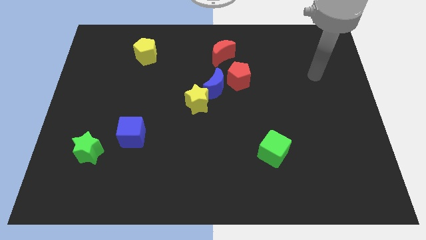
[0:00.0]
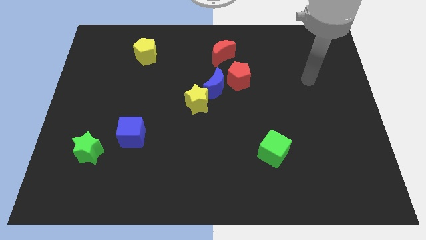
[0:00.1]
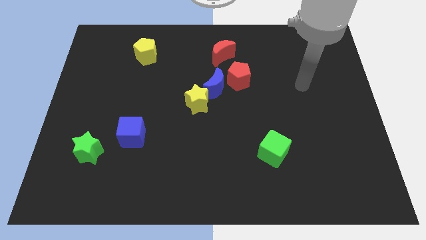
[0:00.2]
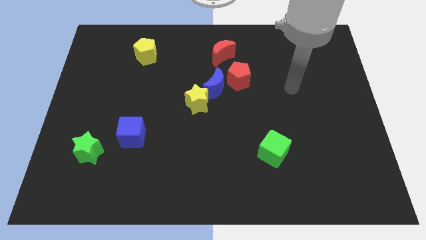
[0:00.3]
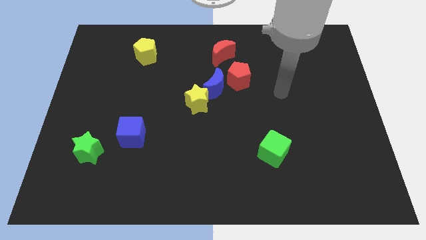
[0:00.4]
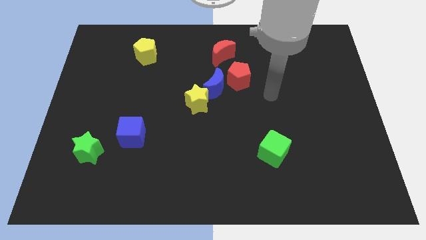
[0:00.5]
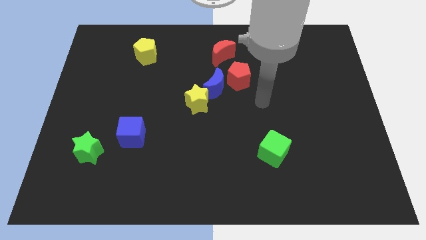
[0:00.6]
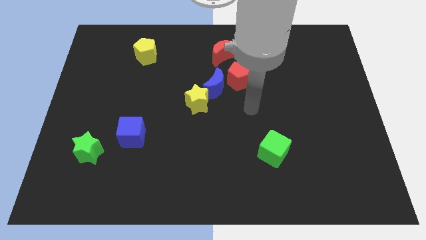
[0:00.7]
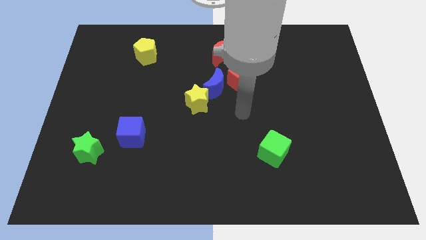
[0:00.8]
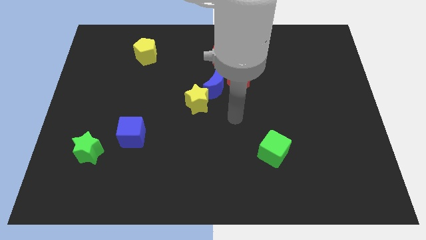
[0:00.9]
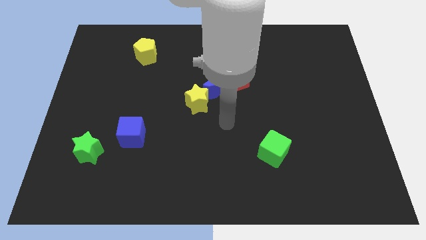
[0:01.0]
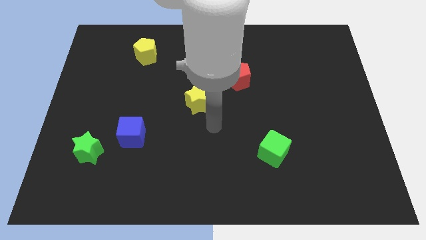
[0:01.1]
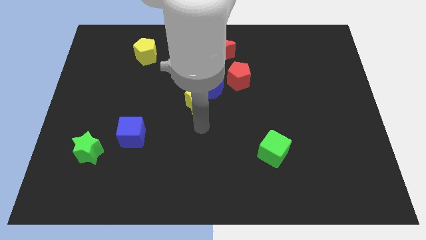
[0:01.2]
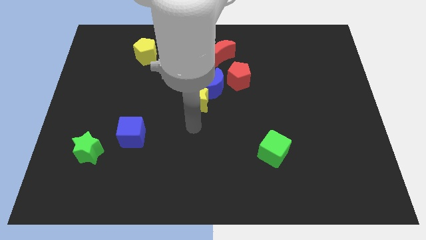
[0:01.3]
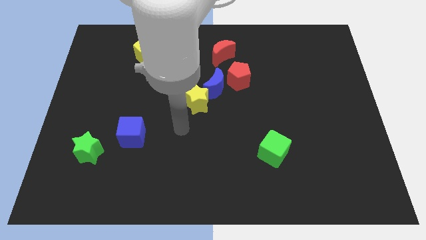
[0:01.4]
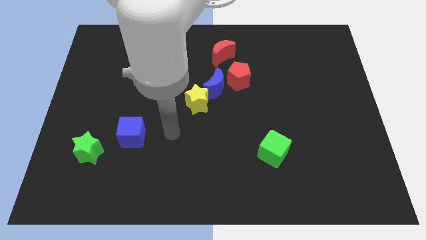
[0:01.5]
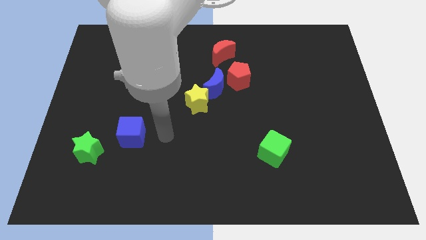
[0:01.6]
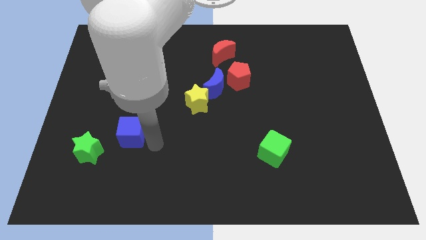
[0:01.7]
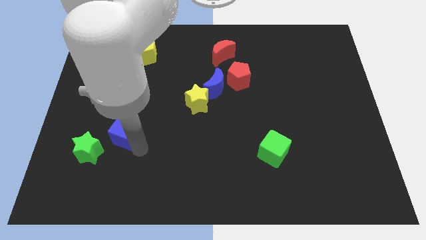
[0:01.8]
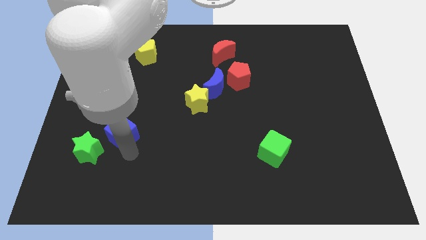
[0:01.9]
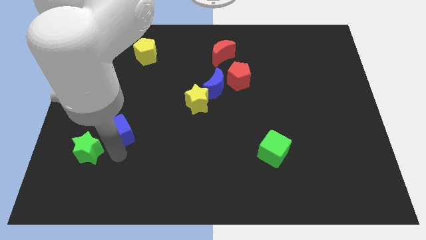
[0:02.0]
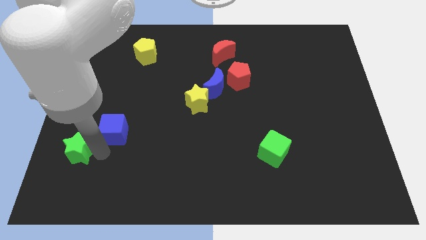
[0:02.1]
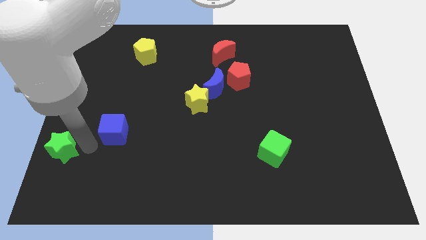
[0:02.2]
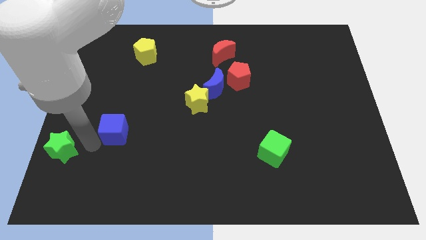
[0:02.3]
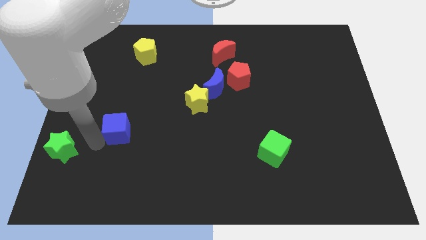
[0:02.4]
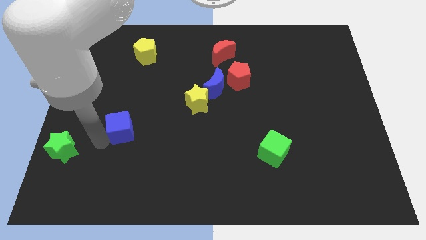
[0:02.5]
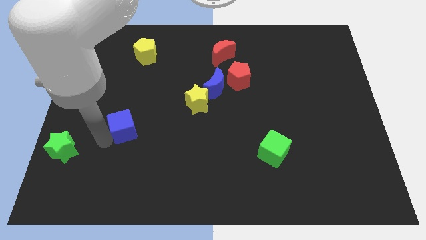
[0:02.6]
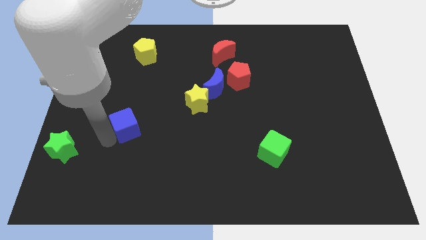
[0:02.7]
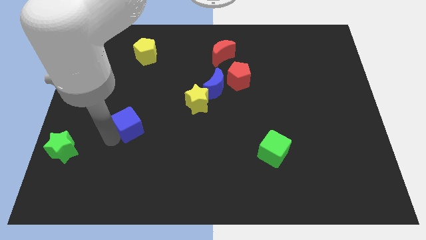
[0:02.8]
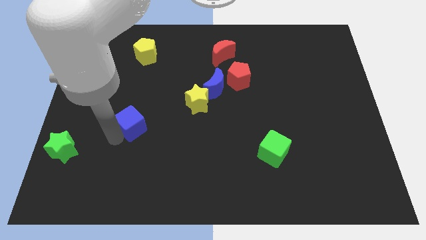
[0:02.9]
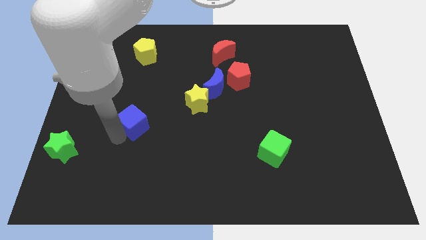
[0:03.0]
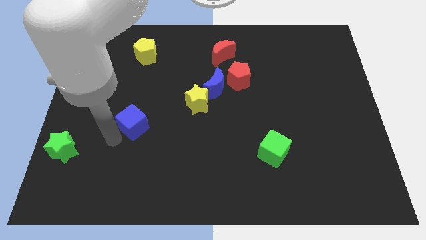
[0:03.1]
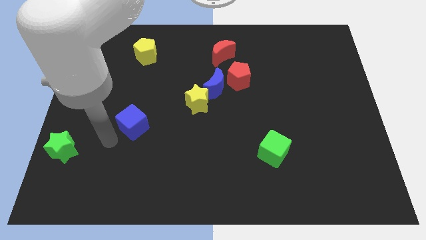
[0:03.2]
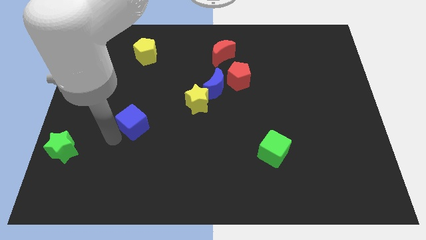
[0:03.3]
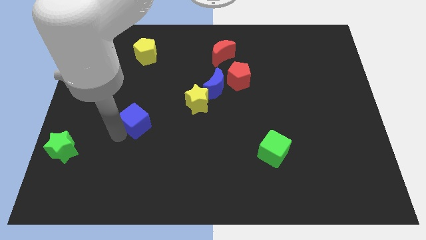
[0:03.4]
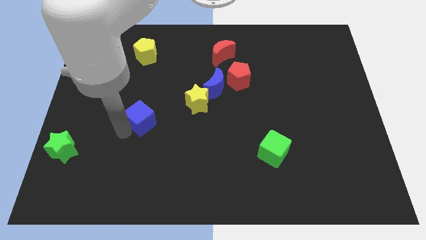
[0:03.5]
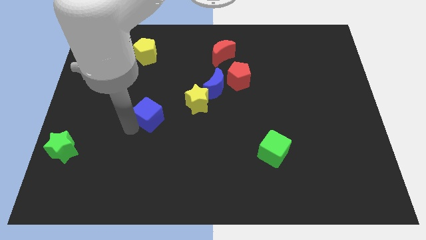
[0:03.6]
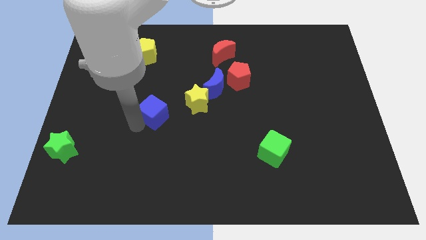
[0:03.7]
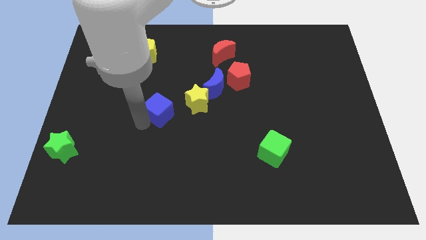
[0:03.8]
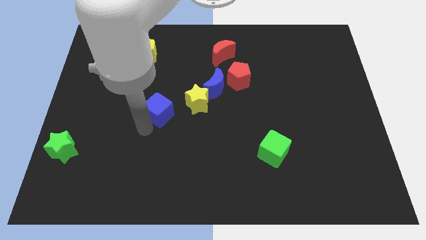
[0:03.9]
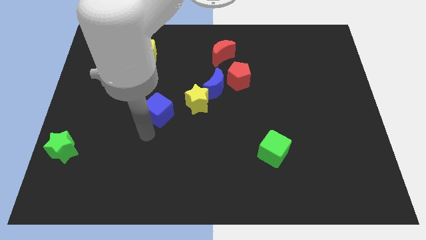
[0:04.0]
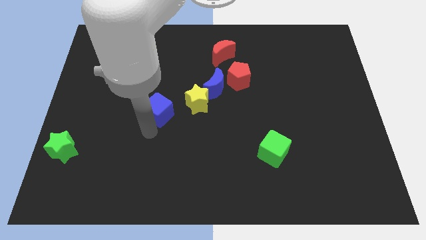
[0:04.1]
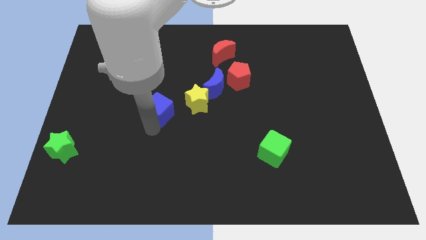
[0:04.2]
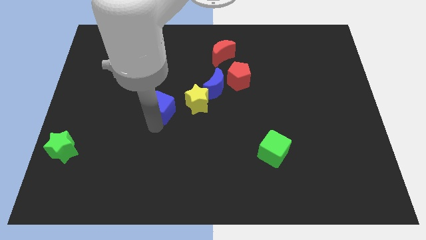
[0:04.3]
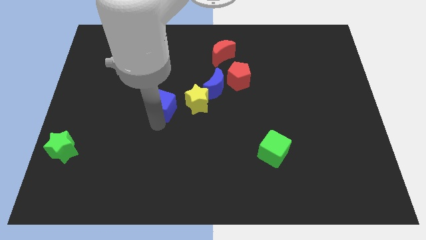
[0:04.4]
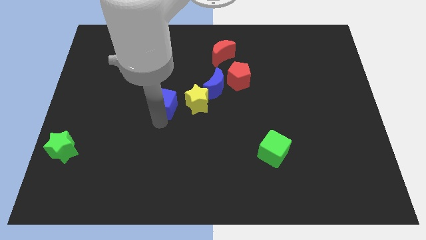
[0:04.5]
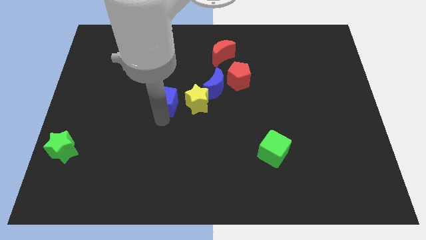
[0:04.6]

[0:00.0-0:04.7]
move the blue cube left of the blue moon

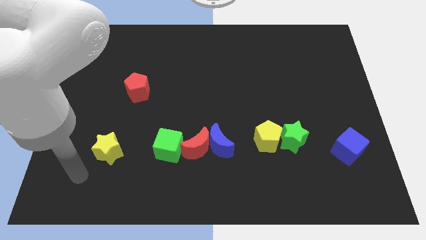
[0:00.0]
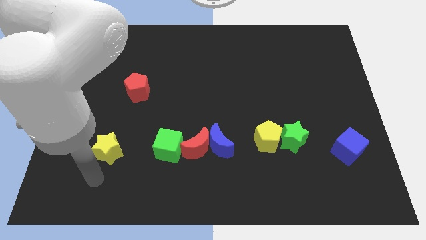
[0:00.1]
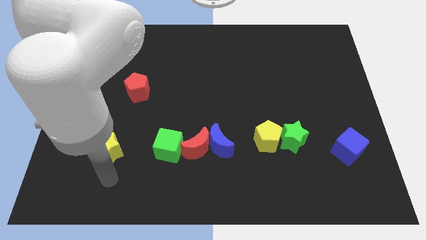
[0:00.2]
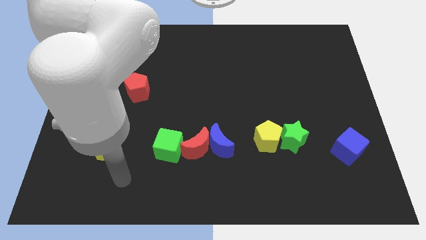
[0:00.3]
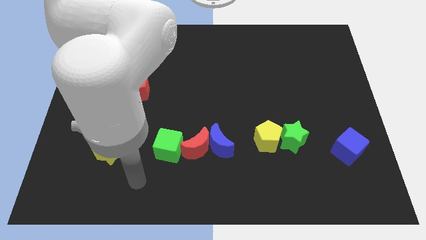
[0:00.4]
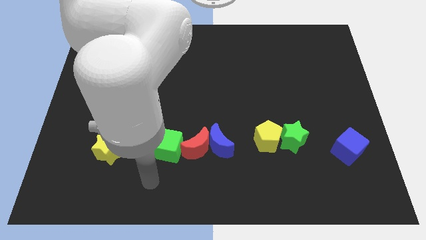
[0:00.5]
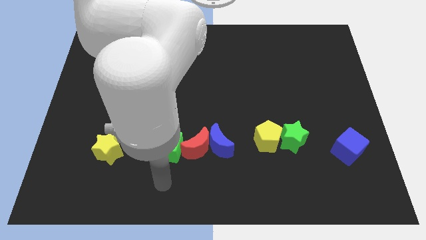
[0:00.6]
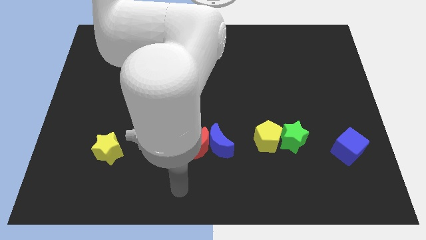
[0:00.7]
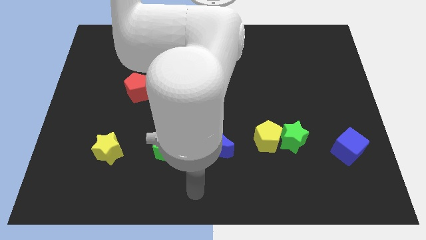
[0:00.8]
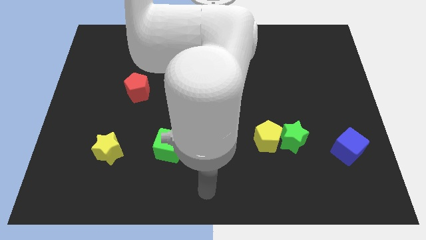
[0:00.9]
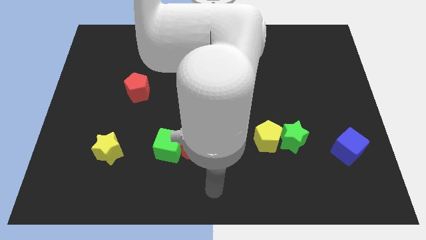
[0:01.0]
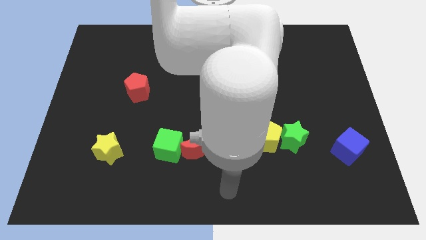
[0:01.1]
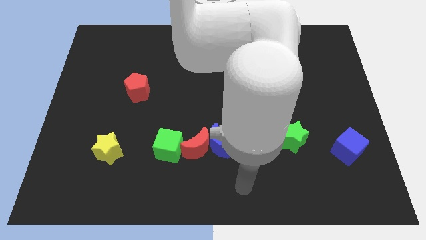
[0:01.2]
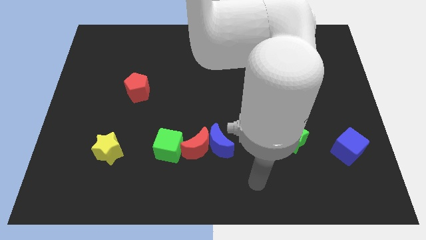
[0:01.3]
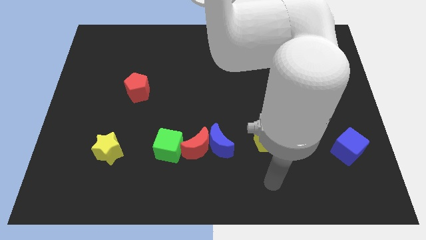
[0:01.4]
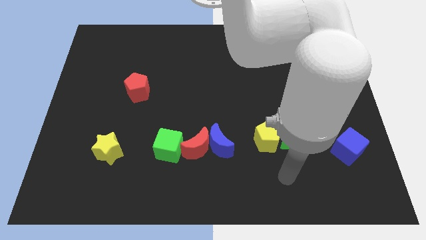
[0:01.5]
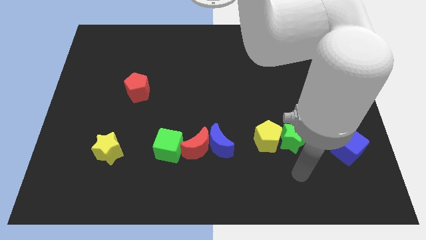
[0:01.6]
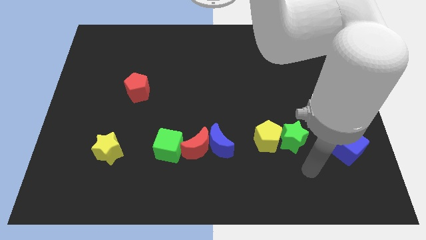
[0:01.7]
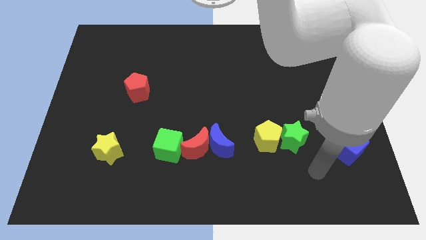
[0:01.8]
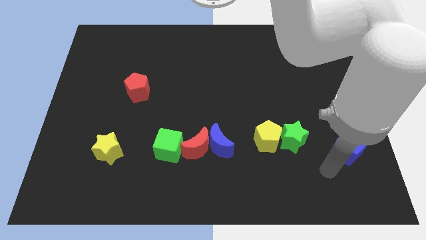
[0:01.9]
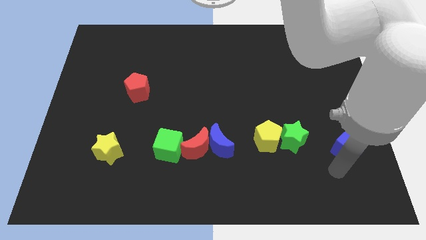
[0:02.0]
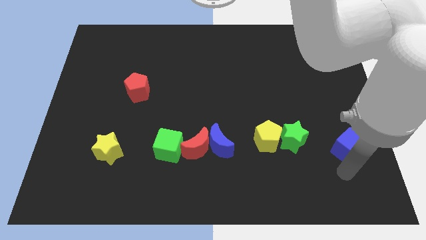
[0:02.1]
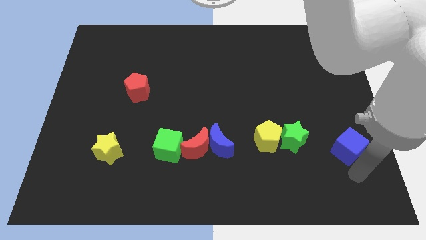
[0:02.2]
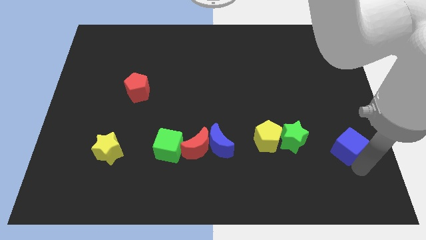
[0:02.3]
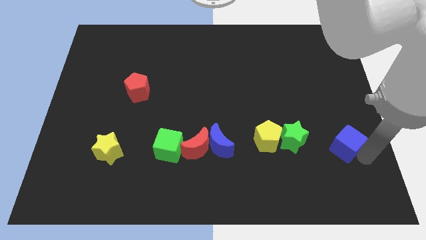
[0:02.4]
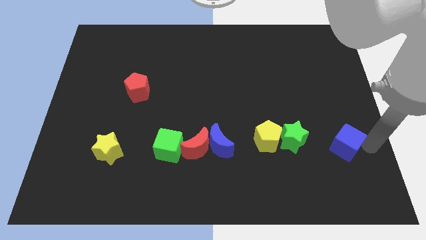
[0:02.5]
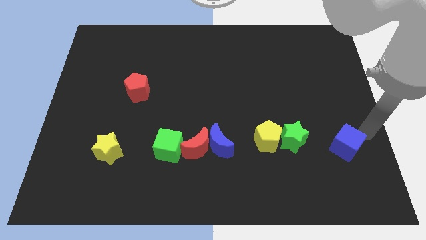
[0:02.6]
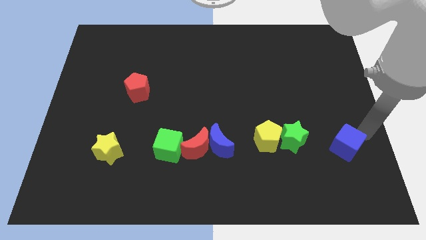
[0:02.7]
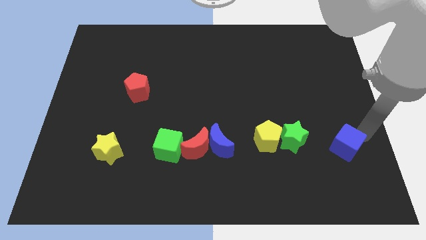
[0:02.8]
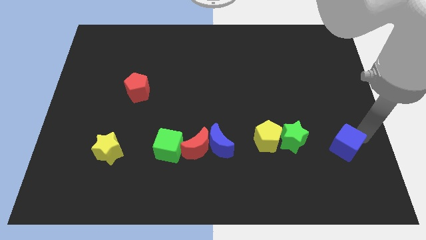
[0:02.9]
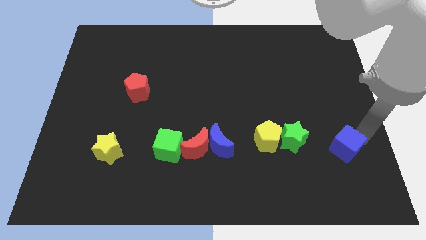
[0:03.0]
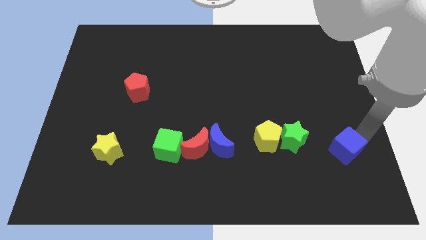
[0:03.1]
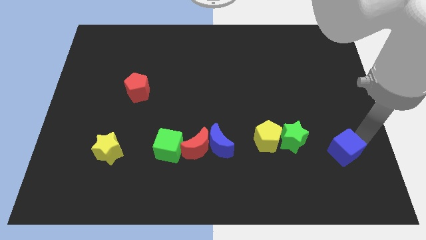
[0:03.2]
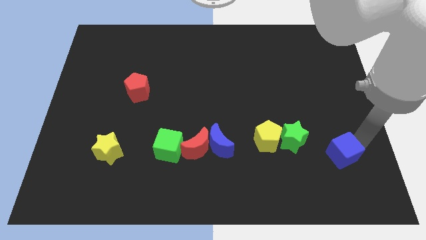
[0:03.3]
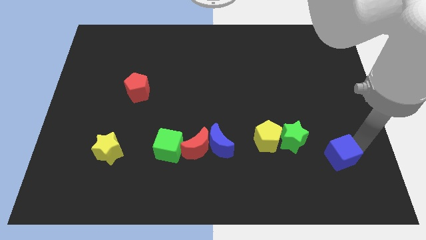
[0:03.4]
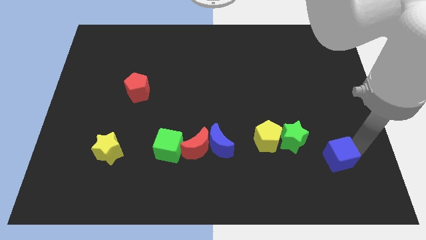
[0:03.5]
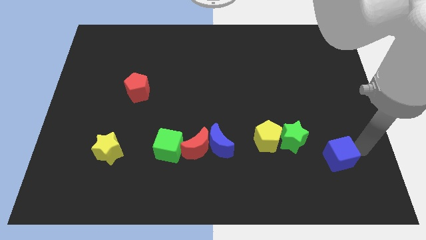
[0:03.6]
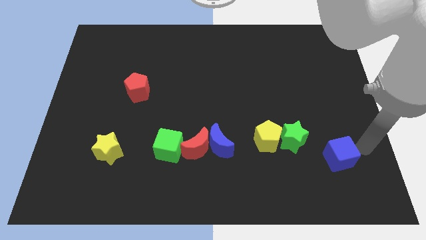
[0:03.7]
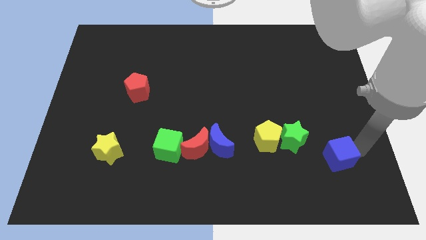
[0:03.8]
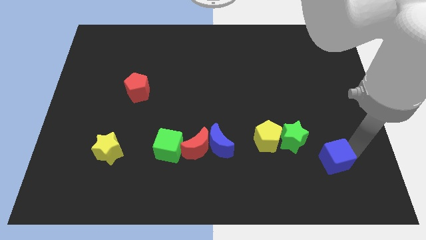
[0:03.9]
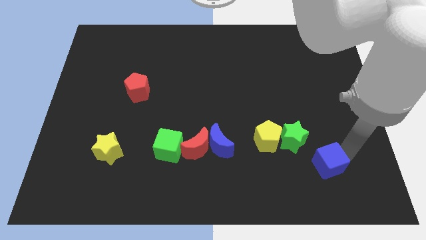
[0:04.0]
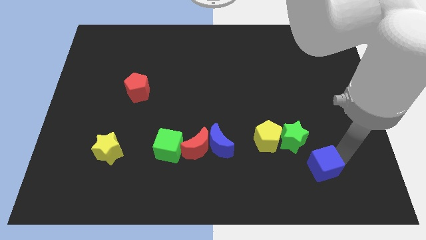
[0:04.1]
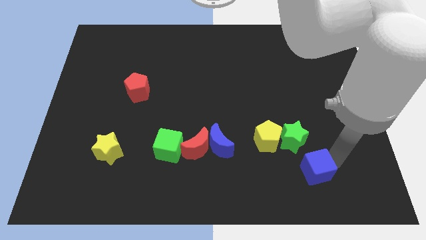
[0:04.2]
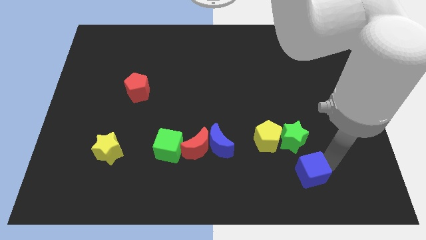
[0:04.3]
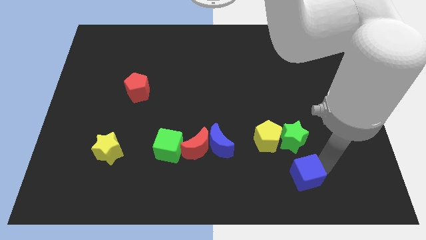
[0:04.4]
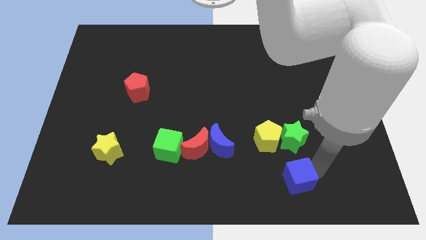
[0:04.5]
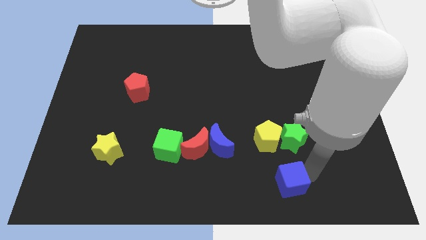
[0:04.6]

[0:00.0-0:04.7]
slide the blue cube to the bottom of the yellow pentagon
